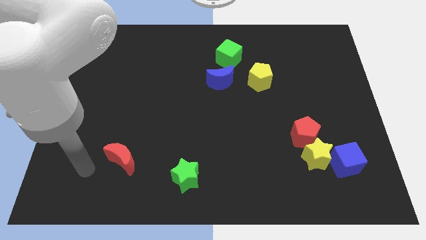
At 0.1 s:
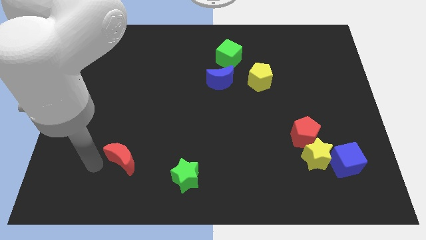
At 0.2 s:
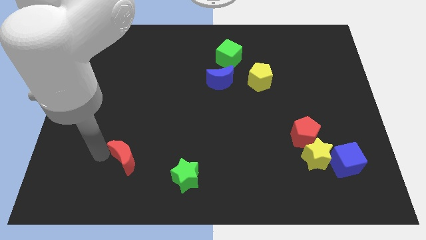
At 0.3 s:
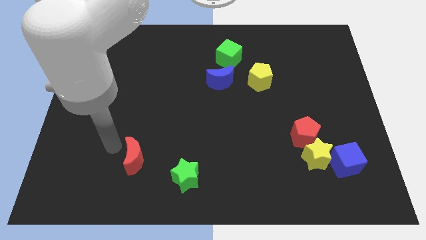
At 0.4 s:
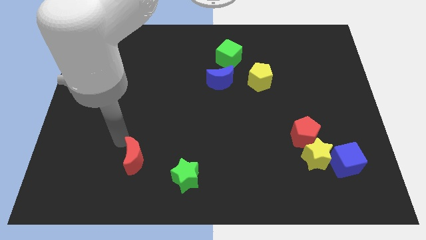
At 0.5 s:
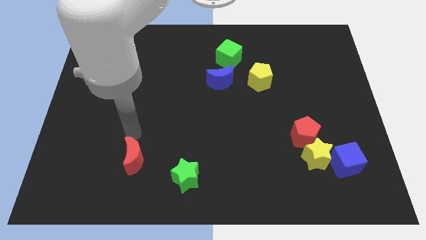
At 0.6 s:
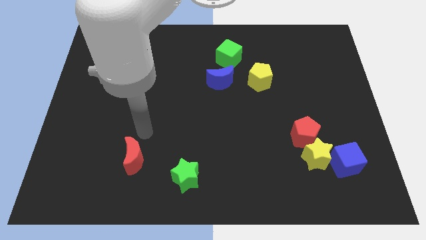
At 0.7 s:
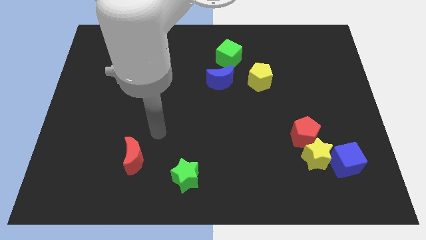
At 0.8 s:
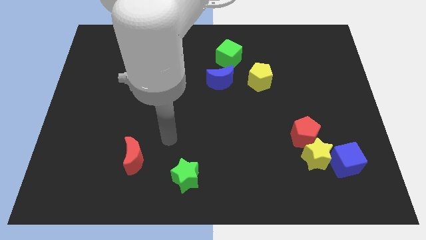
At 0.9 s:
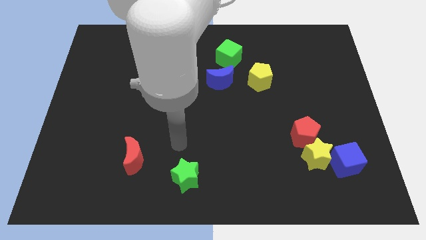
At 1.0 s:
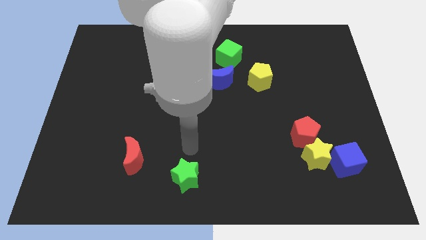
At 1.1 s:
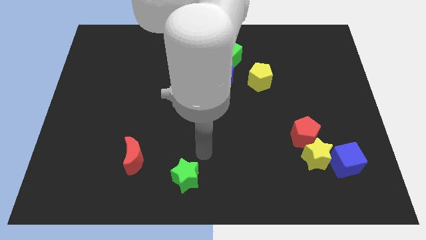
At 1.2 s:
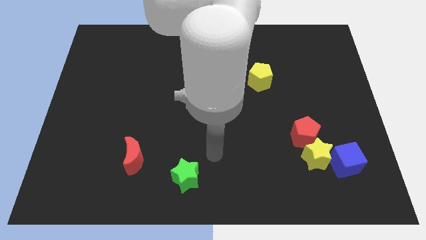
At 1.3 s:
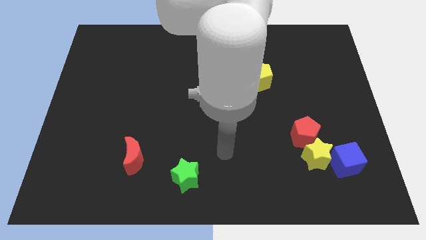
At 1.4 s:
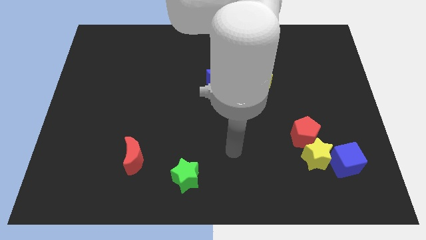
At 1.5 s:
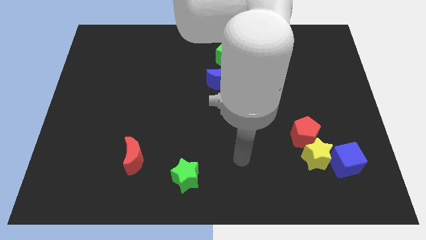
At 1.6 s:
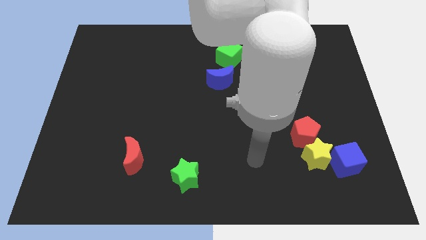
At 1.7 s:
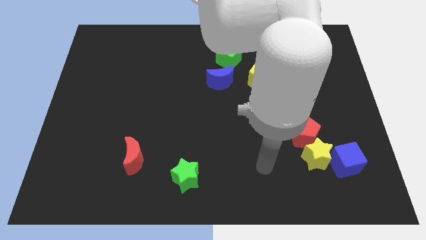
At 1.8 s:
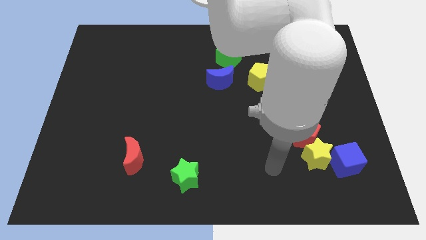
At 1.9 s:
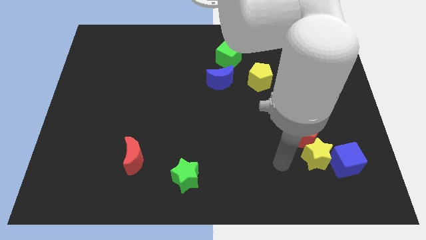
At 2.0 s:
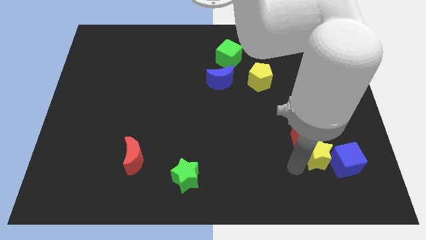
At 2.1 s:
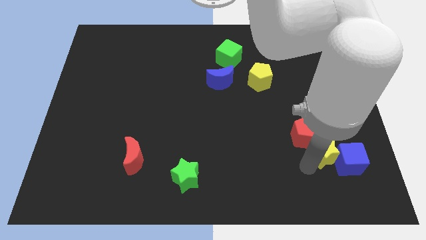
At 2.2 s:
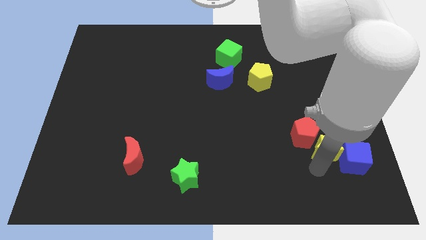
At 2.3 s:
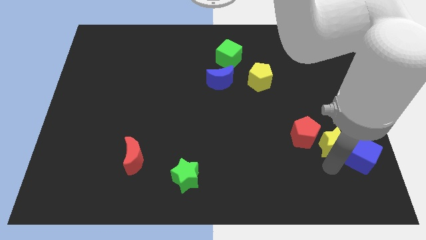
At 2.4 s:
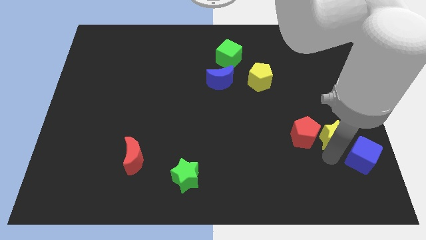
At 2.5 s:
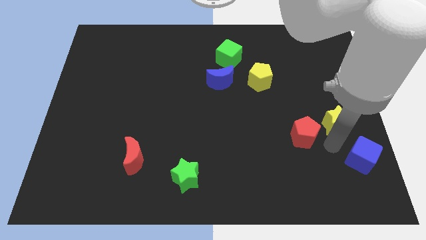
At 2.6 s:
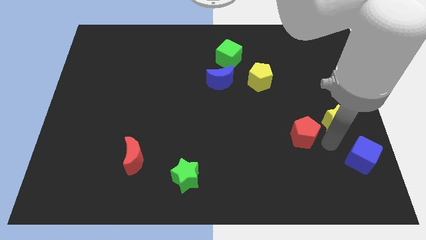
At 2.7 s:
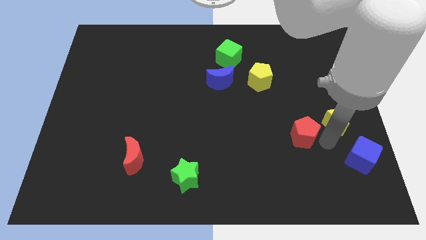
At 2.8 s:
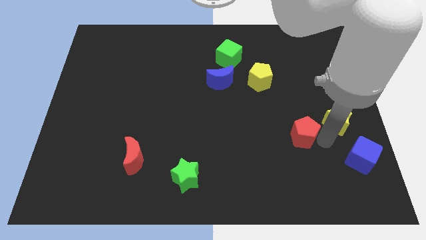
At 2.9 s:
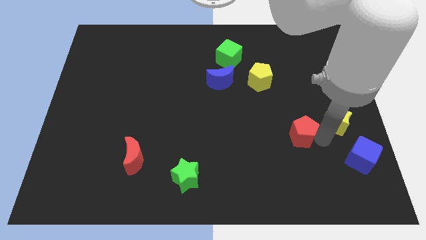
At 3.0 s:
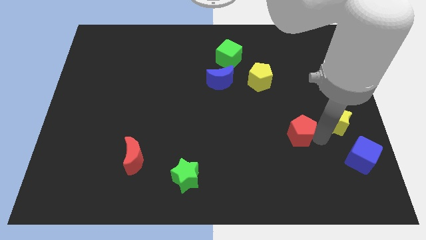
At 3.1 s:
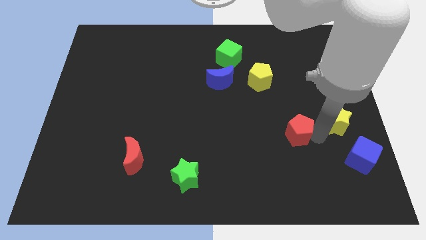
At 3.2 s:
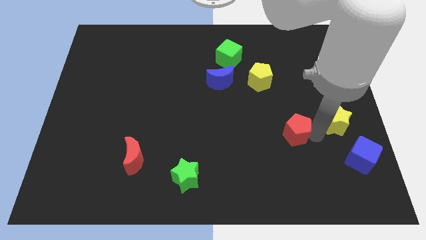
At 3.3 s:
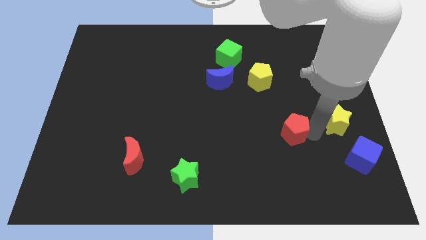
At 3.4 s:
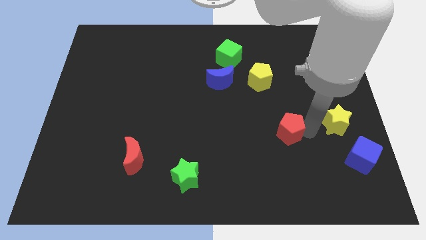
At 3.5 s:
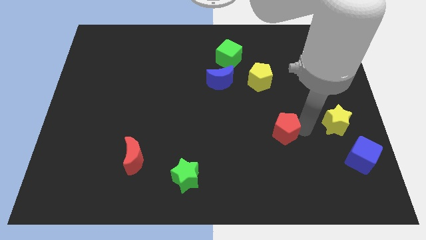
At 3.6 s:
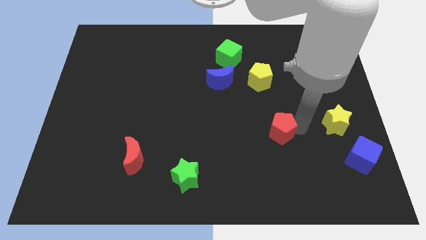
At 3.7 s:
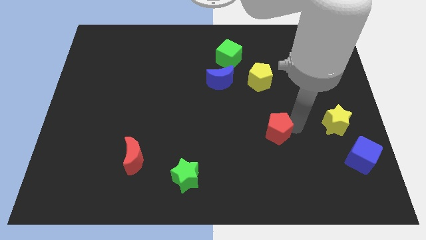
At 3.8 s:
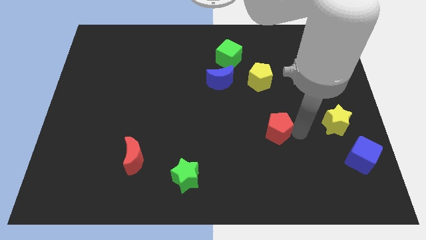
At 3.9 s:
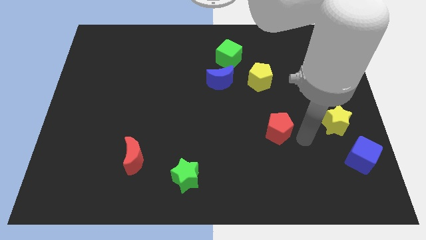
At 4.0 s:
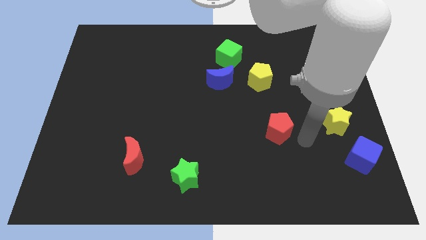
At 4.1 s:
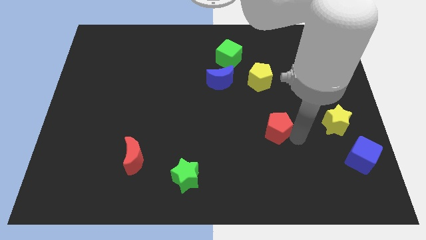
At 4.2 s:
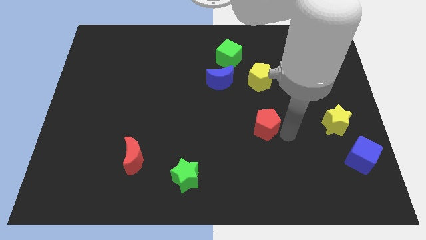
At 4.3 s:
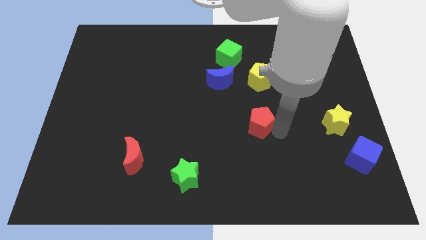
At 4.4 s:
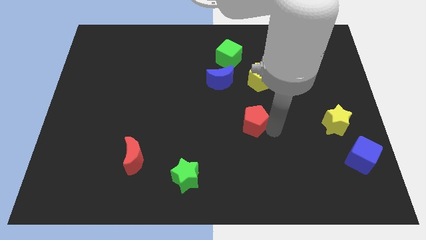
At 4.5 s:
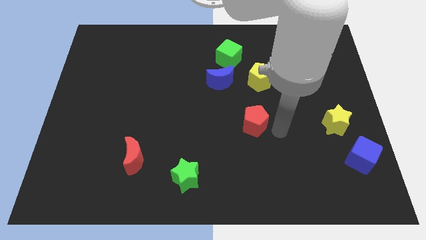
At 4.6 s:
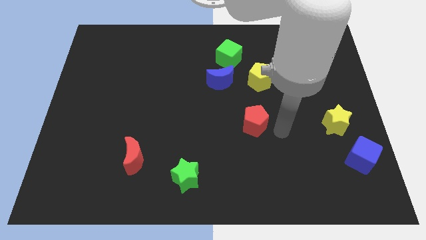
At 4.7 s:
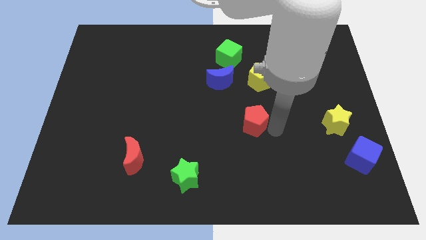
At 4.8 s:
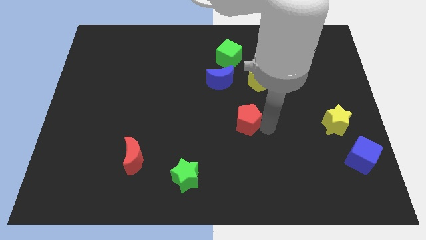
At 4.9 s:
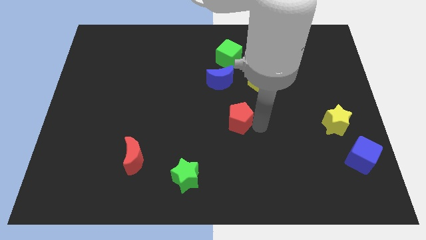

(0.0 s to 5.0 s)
slide the red pentagon to the bottom side of the blue moon

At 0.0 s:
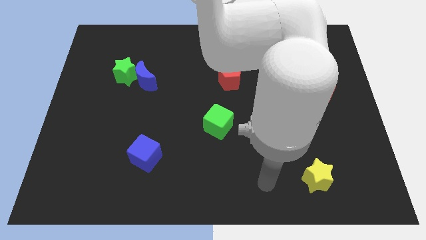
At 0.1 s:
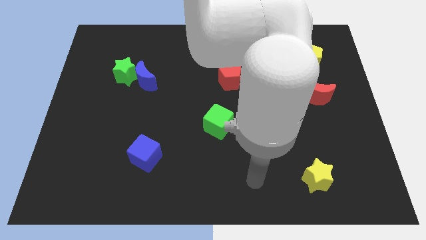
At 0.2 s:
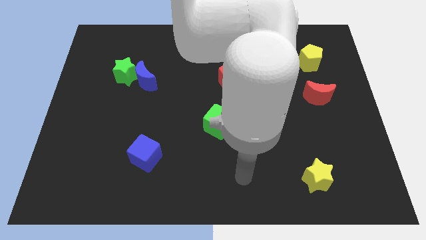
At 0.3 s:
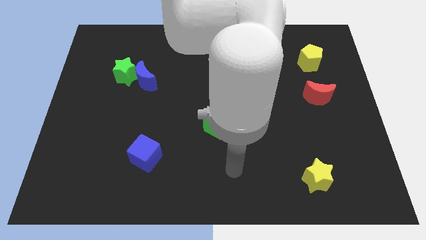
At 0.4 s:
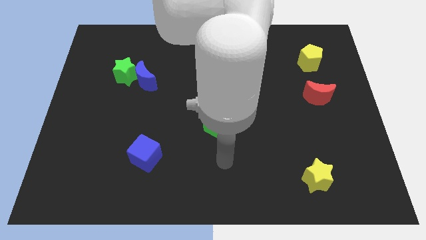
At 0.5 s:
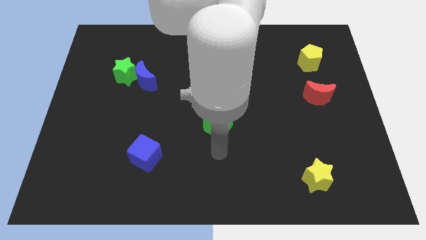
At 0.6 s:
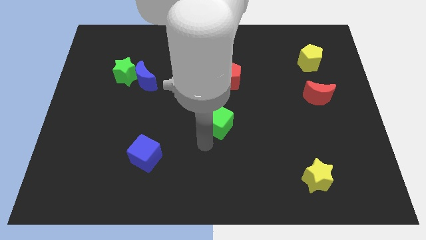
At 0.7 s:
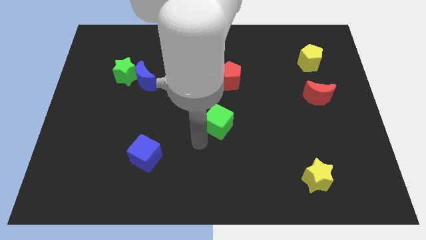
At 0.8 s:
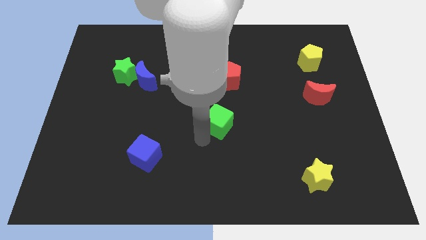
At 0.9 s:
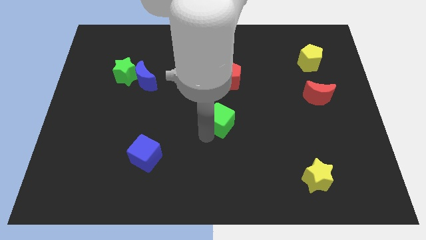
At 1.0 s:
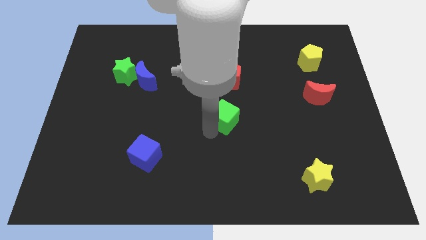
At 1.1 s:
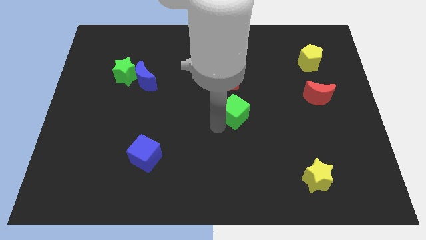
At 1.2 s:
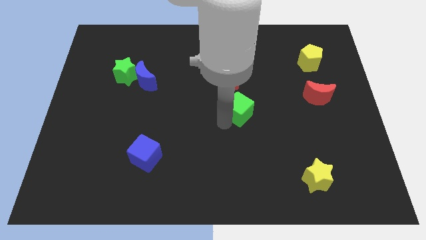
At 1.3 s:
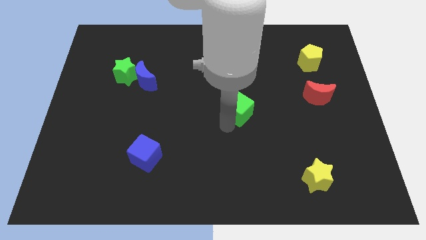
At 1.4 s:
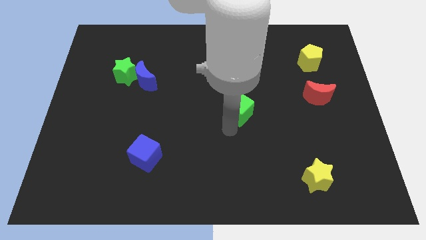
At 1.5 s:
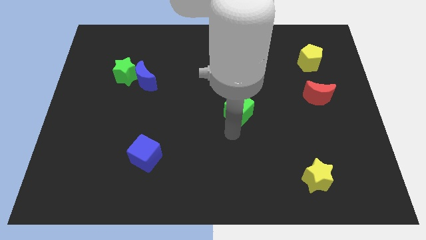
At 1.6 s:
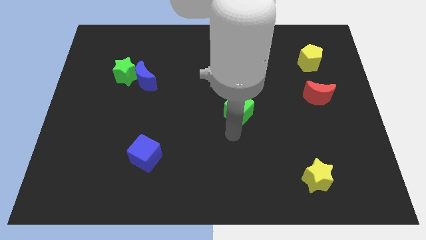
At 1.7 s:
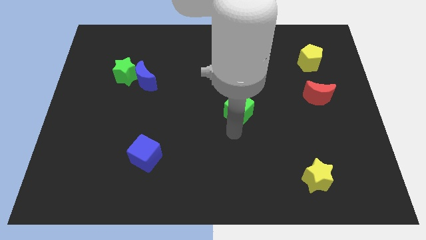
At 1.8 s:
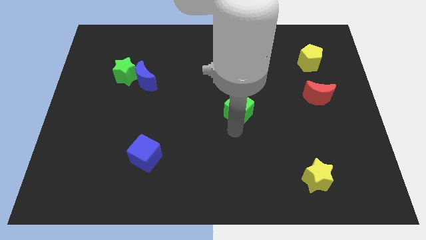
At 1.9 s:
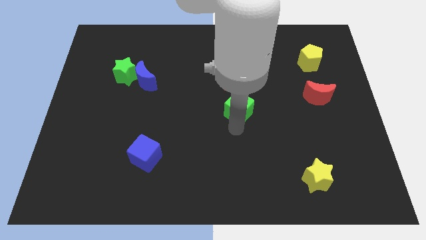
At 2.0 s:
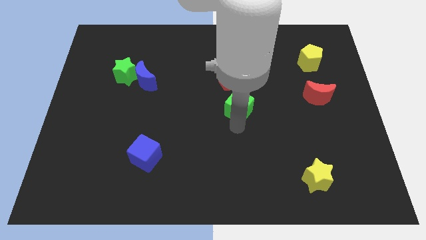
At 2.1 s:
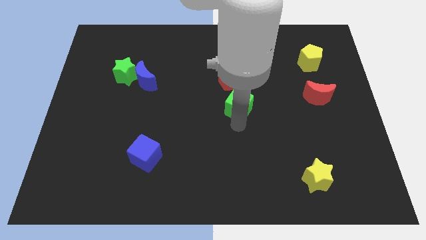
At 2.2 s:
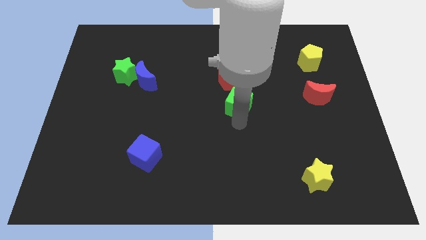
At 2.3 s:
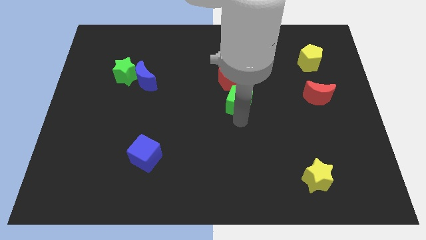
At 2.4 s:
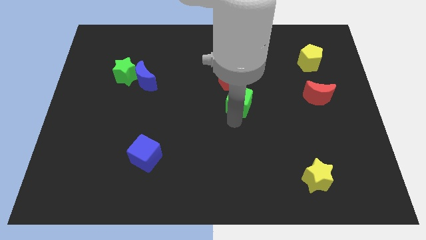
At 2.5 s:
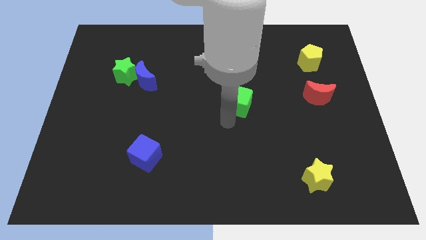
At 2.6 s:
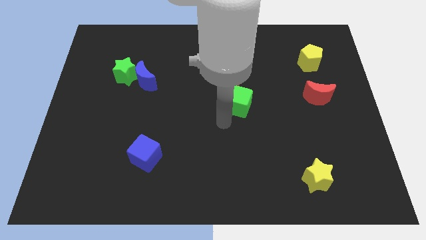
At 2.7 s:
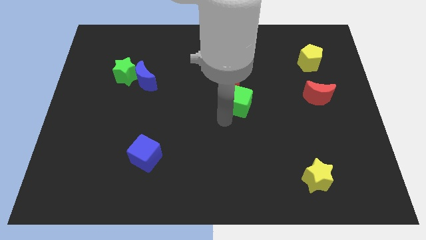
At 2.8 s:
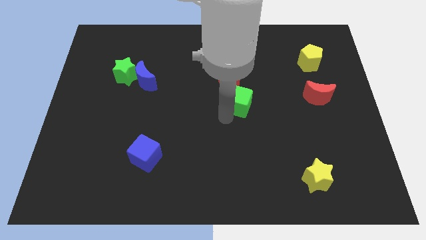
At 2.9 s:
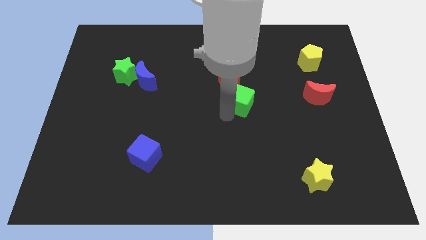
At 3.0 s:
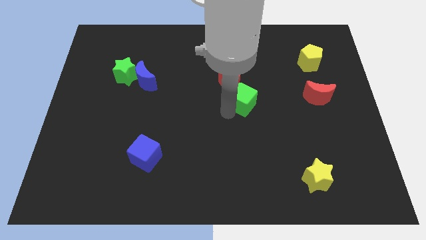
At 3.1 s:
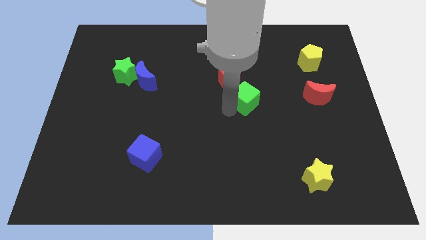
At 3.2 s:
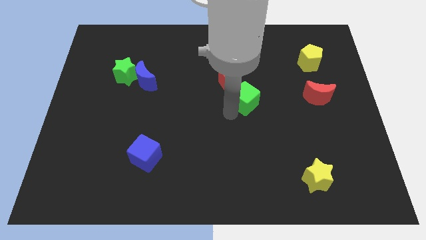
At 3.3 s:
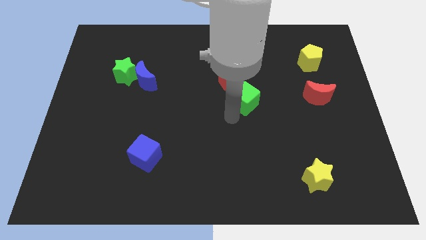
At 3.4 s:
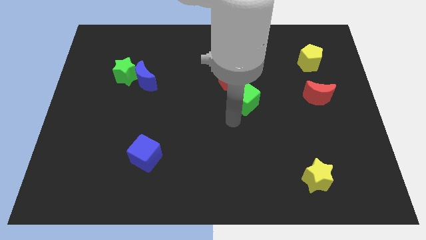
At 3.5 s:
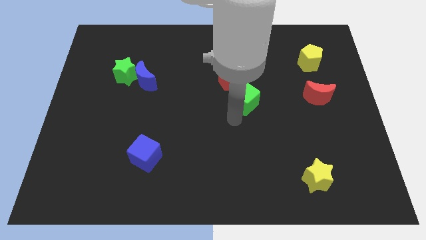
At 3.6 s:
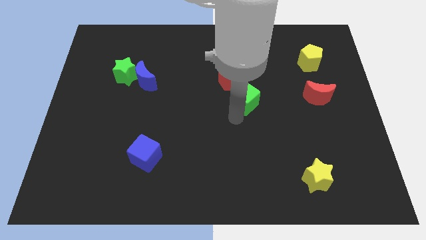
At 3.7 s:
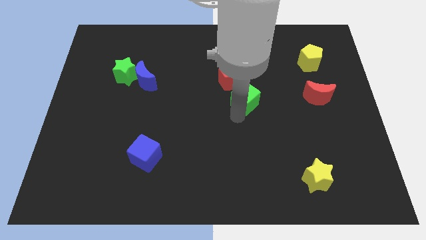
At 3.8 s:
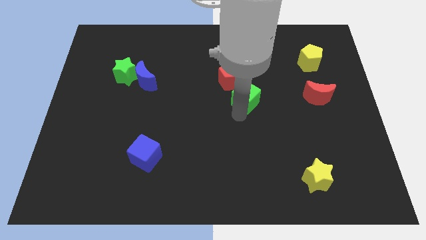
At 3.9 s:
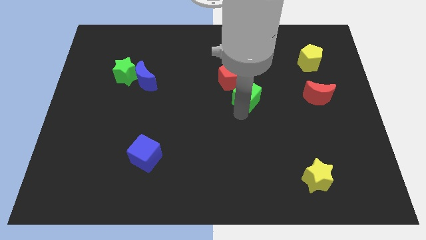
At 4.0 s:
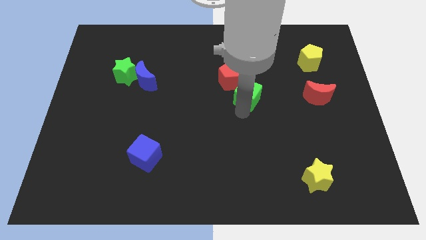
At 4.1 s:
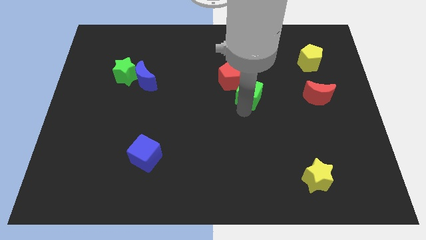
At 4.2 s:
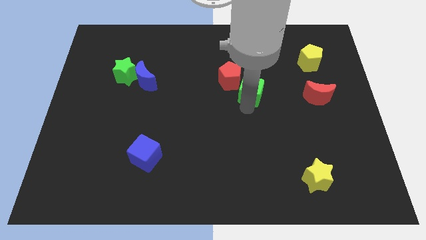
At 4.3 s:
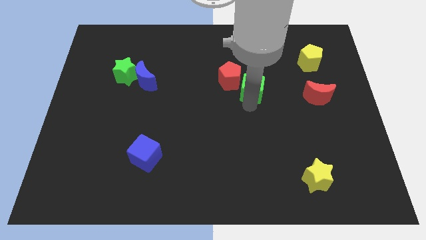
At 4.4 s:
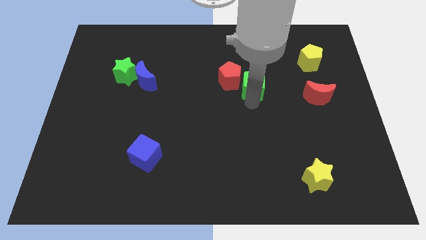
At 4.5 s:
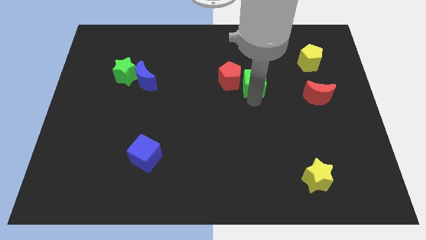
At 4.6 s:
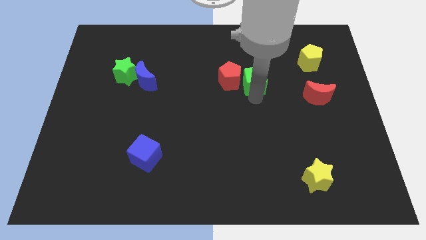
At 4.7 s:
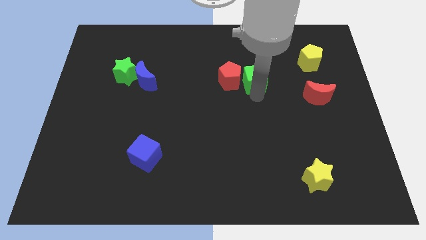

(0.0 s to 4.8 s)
slide the green cube diagonally up and to the right of the red pentagon
